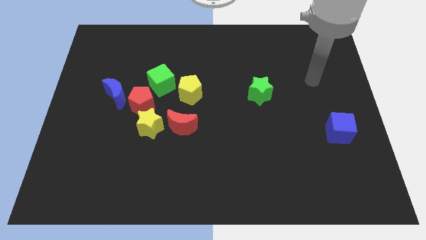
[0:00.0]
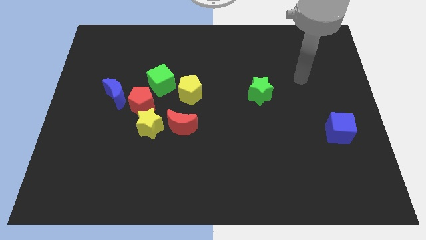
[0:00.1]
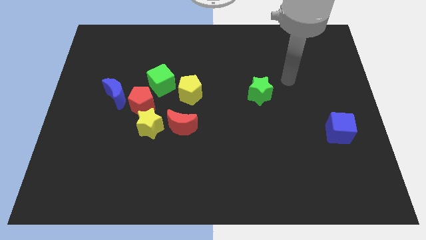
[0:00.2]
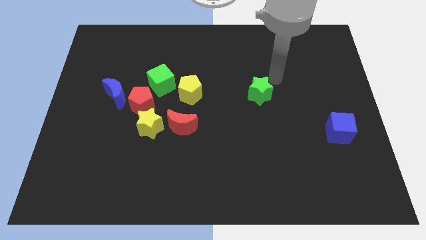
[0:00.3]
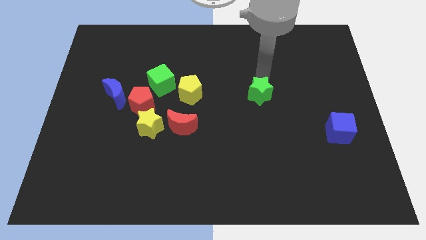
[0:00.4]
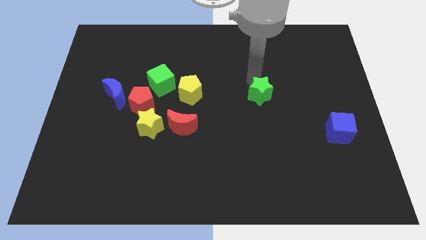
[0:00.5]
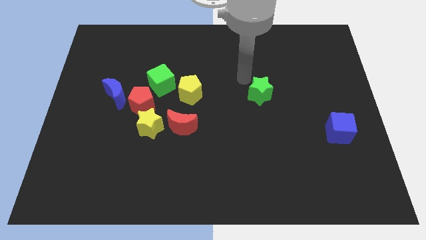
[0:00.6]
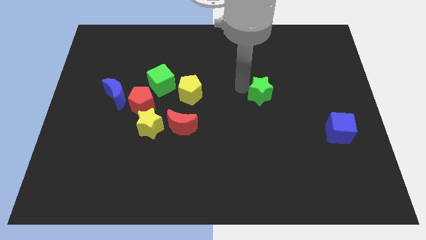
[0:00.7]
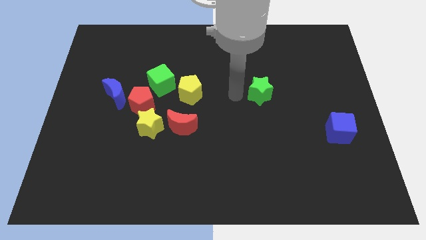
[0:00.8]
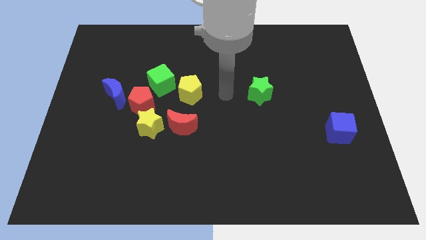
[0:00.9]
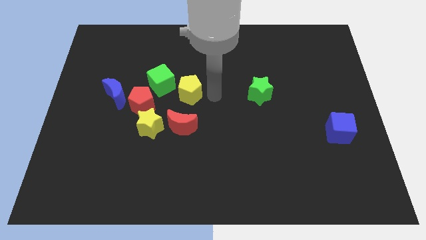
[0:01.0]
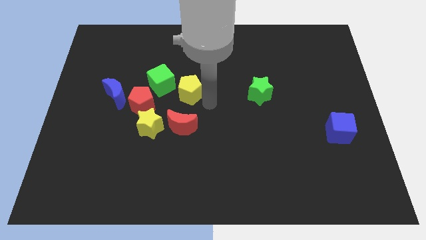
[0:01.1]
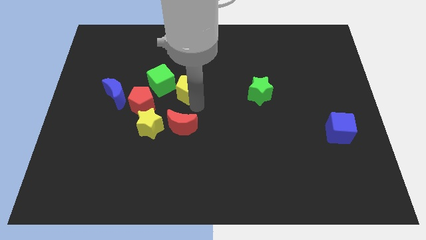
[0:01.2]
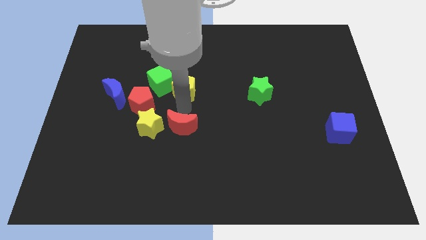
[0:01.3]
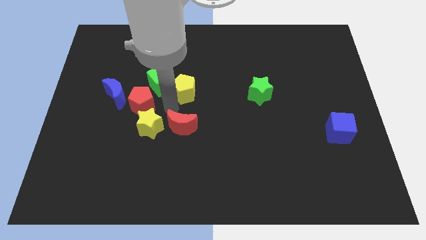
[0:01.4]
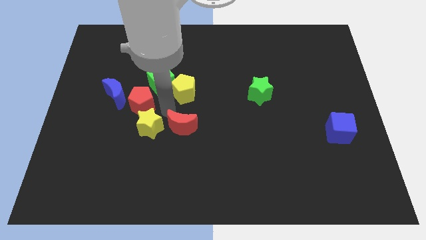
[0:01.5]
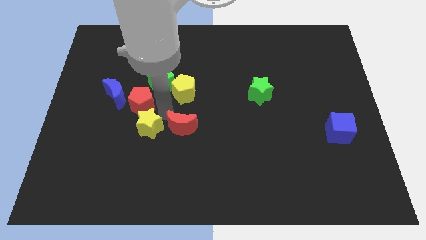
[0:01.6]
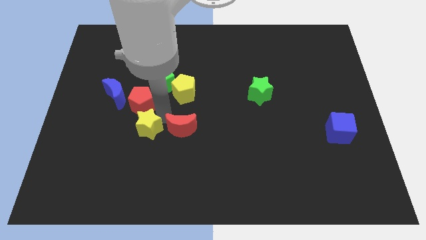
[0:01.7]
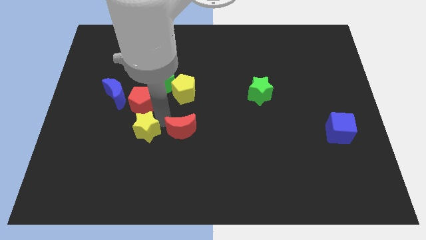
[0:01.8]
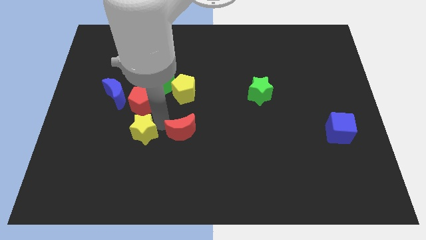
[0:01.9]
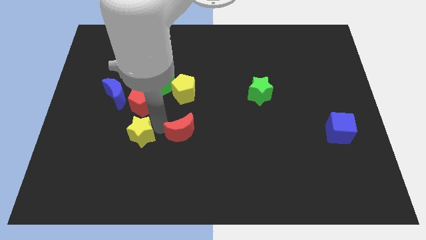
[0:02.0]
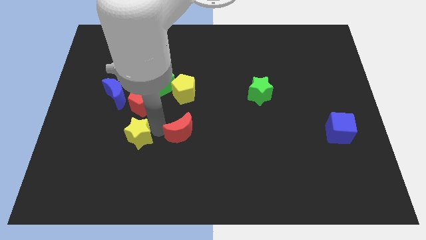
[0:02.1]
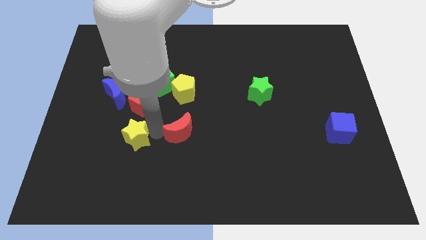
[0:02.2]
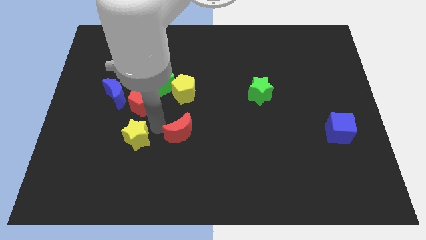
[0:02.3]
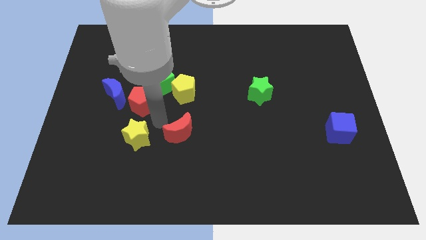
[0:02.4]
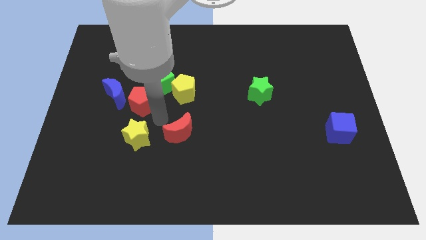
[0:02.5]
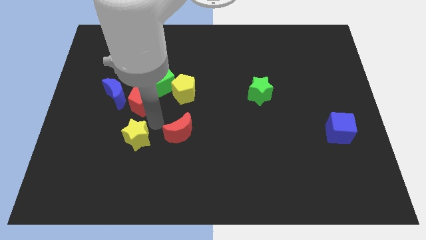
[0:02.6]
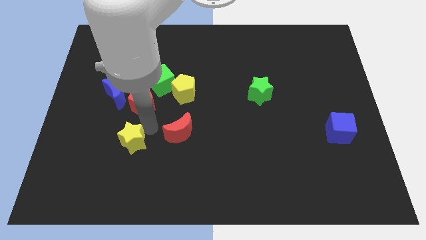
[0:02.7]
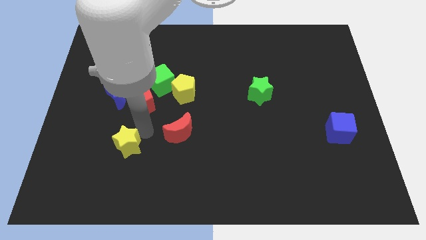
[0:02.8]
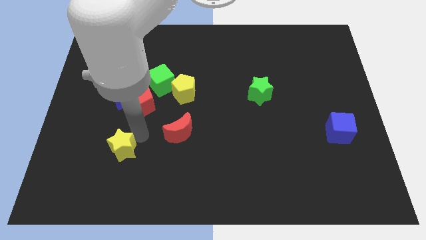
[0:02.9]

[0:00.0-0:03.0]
pull the yellow star apart from the red pentagon and red moon

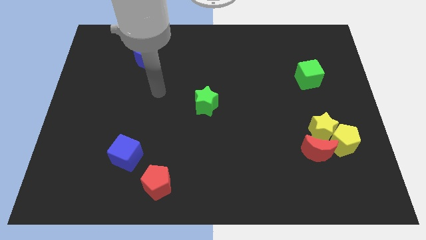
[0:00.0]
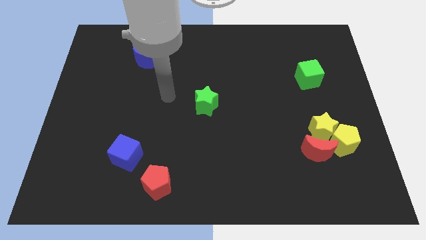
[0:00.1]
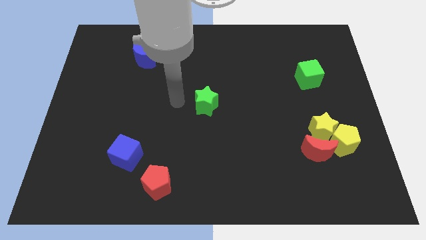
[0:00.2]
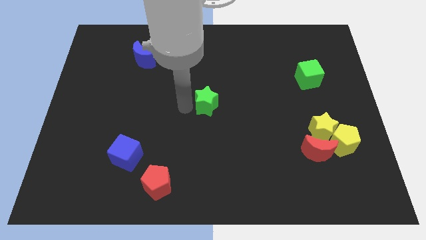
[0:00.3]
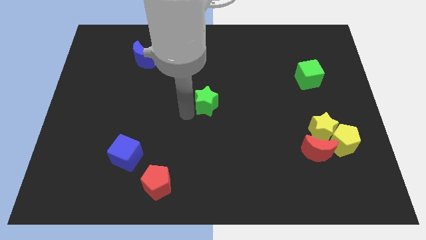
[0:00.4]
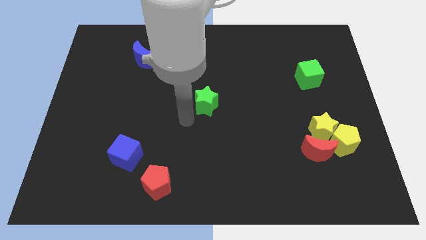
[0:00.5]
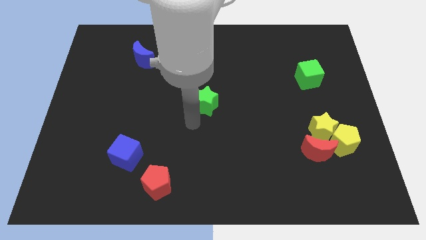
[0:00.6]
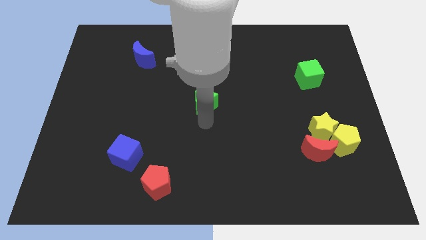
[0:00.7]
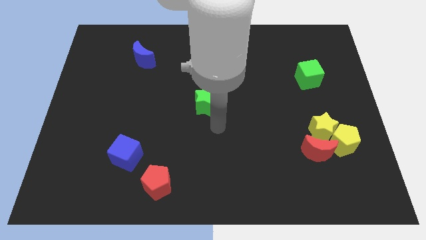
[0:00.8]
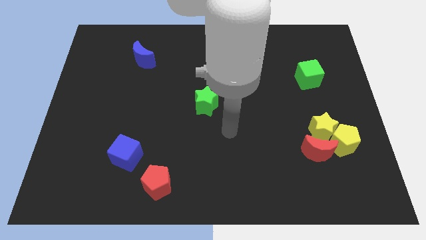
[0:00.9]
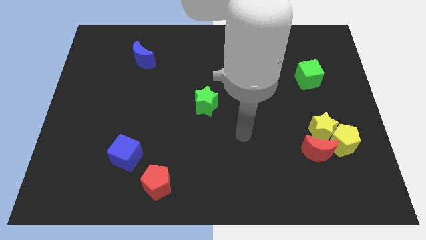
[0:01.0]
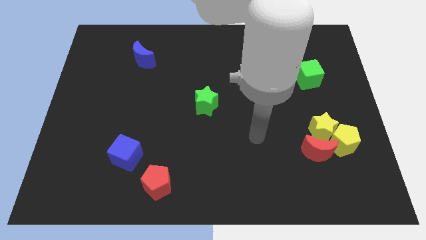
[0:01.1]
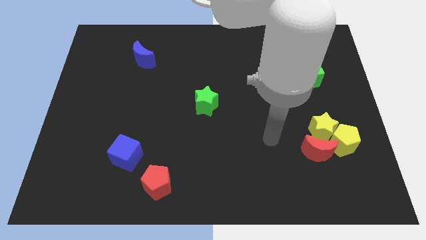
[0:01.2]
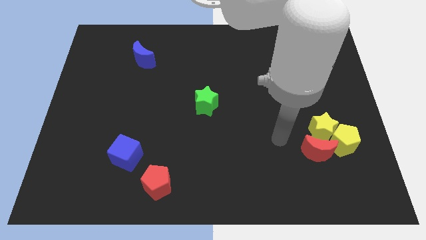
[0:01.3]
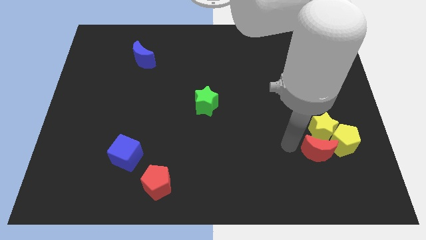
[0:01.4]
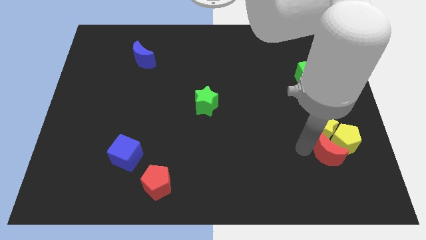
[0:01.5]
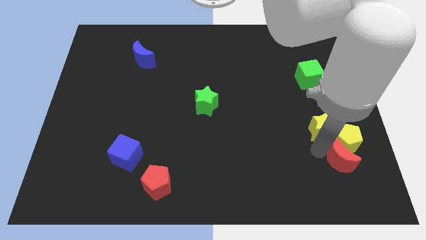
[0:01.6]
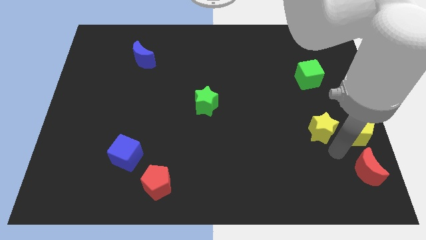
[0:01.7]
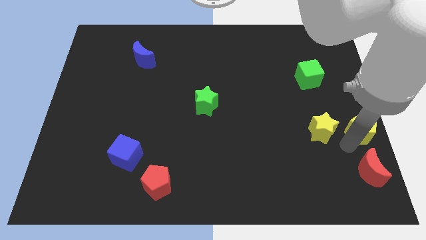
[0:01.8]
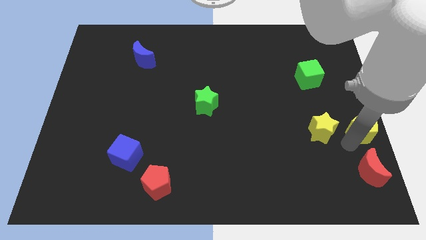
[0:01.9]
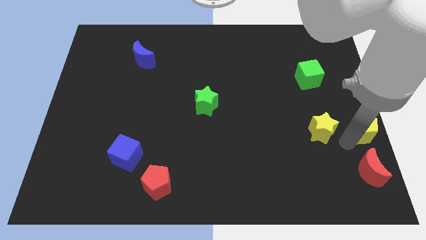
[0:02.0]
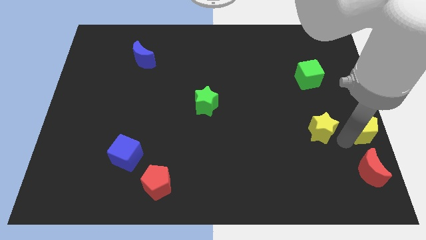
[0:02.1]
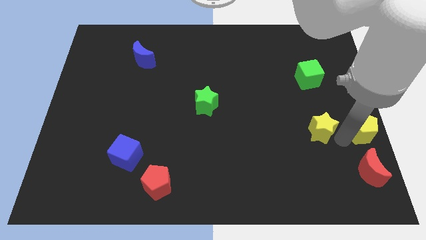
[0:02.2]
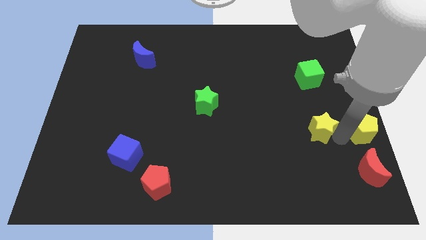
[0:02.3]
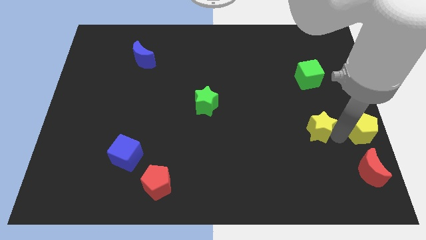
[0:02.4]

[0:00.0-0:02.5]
separate the yellow star from the yellow pentagon and red moon

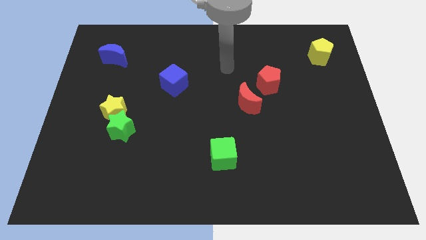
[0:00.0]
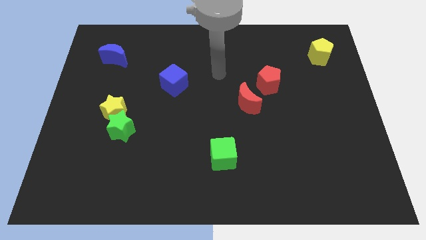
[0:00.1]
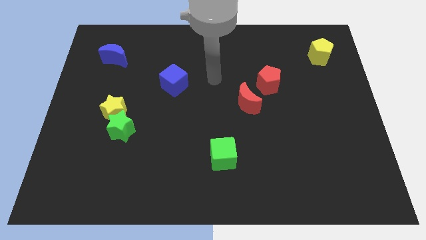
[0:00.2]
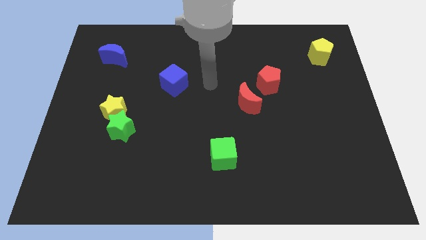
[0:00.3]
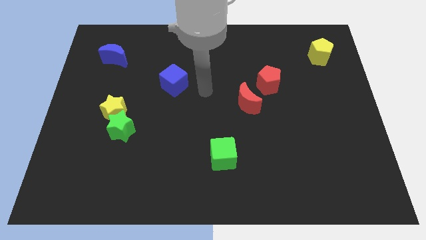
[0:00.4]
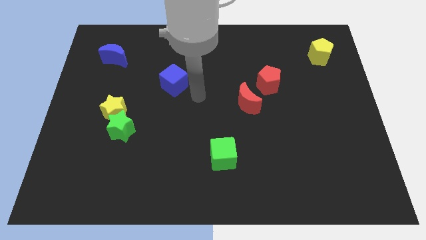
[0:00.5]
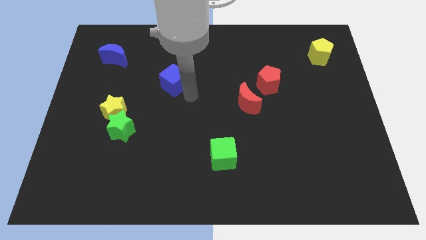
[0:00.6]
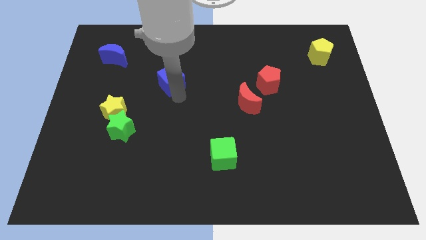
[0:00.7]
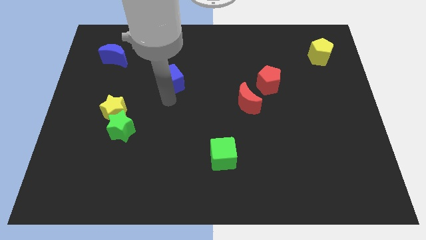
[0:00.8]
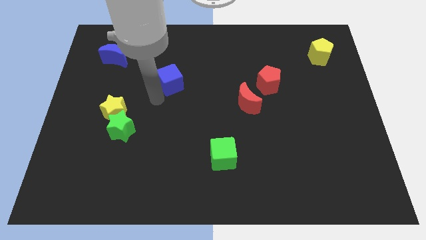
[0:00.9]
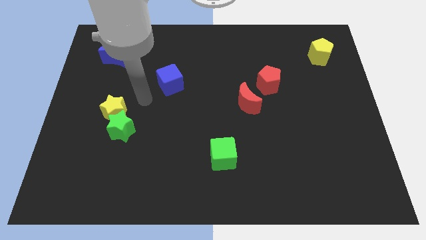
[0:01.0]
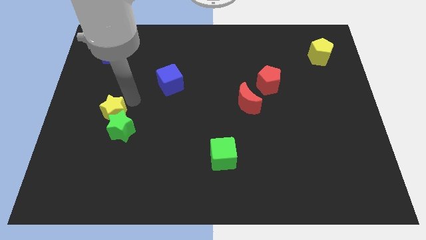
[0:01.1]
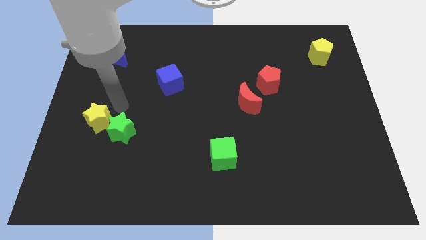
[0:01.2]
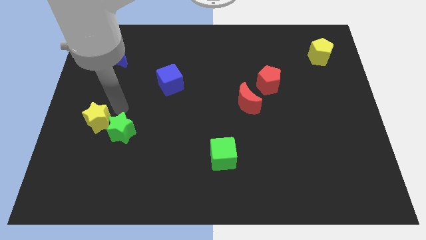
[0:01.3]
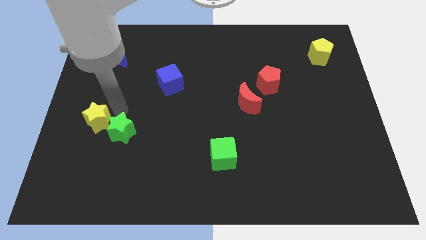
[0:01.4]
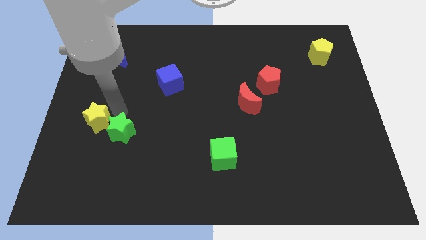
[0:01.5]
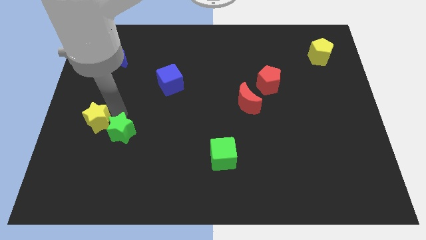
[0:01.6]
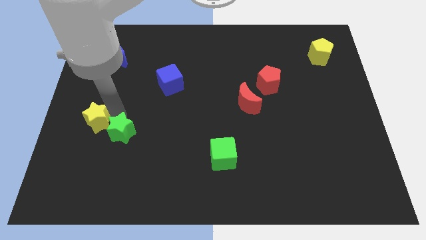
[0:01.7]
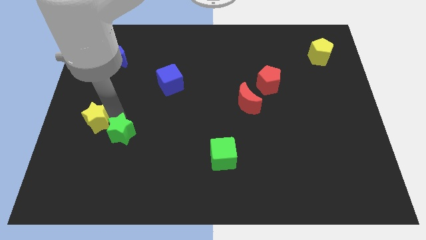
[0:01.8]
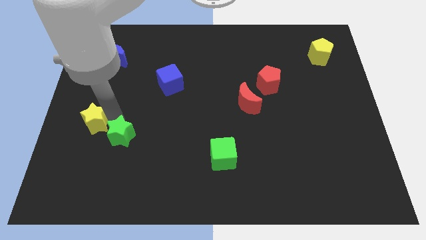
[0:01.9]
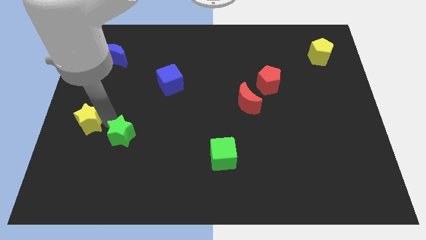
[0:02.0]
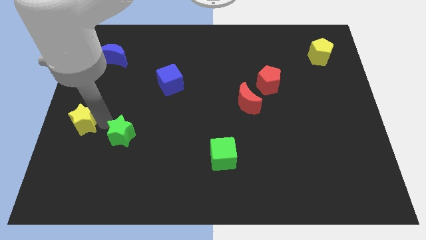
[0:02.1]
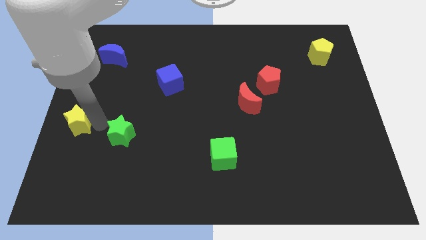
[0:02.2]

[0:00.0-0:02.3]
move the green star away from the yellow star

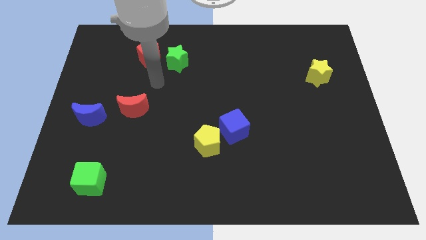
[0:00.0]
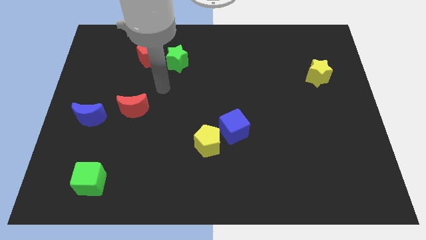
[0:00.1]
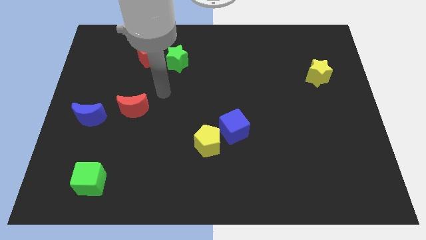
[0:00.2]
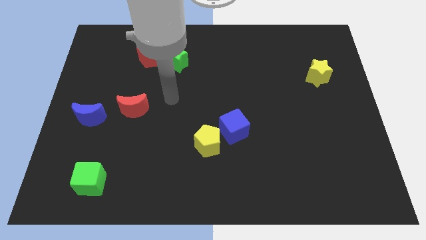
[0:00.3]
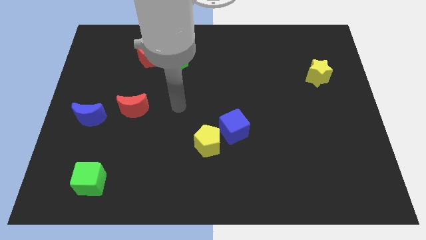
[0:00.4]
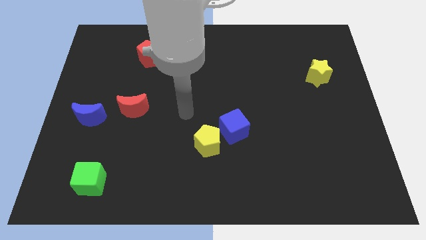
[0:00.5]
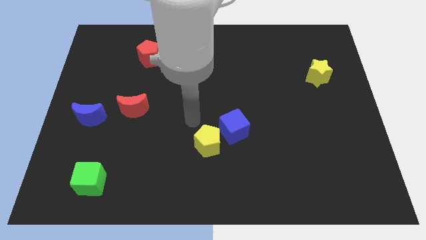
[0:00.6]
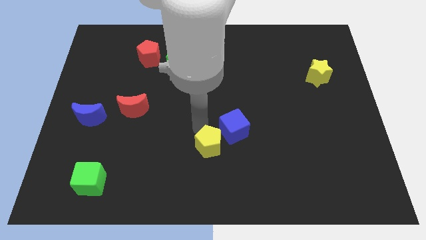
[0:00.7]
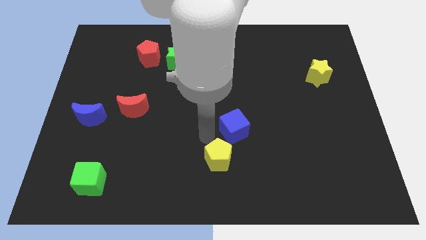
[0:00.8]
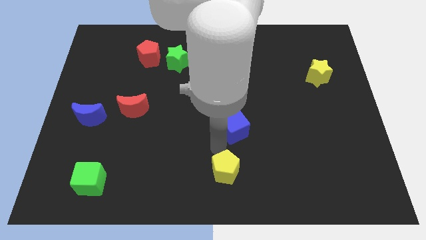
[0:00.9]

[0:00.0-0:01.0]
move the blue cube away from the yellow pentagon

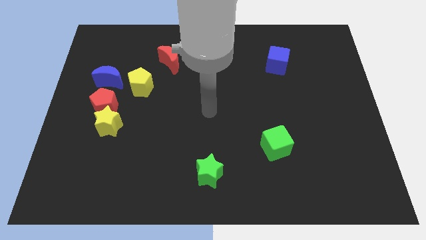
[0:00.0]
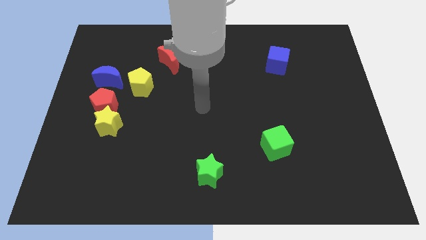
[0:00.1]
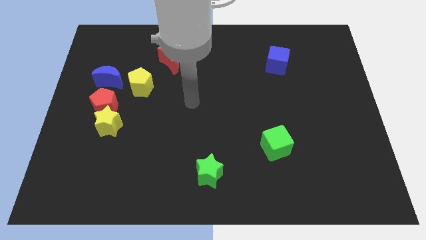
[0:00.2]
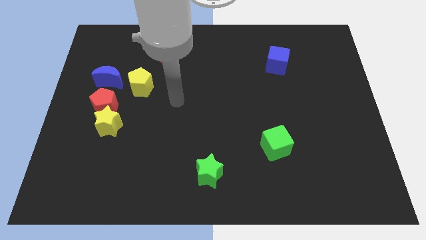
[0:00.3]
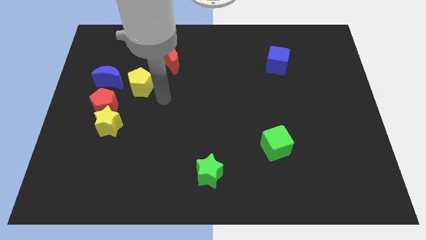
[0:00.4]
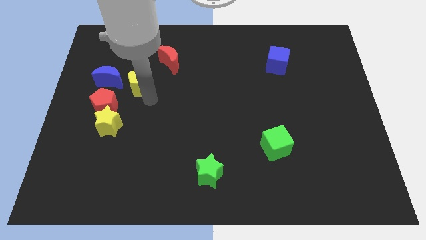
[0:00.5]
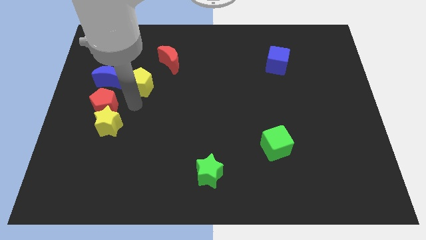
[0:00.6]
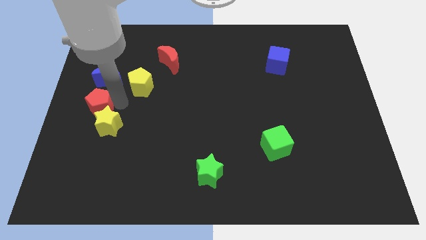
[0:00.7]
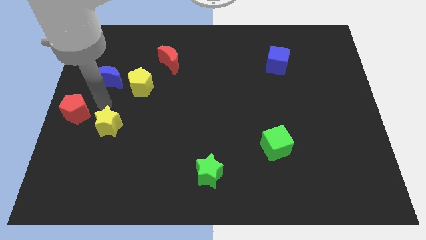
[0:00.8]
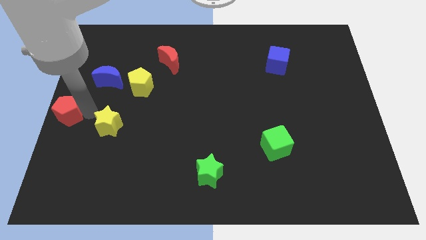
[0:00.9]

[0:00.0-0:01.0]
move the yellow star away from the red pentagon
